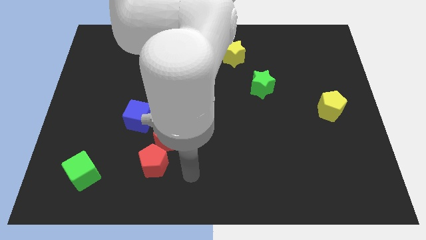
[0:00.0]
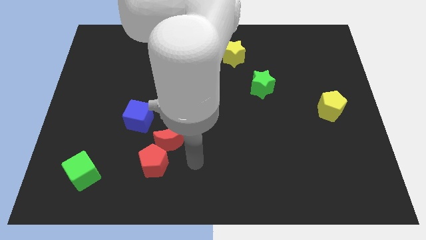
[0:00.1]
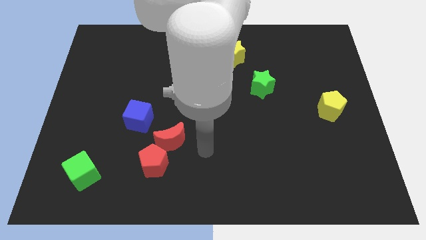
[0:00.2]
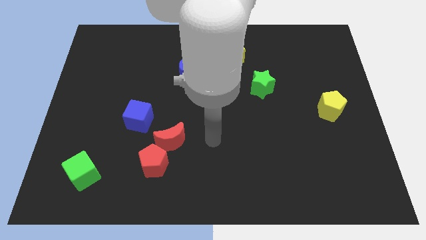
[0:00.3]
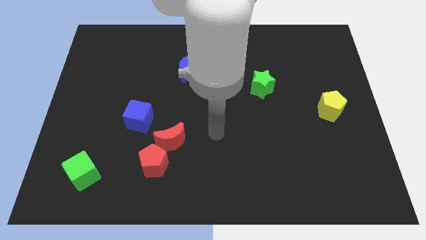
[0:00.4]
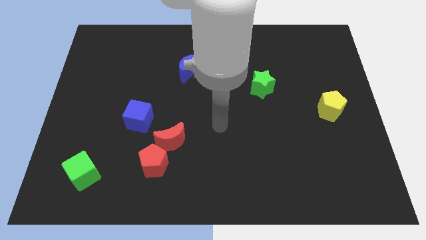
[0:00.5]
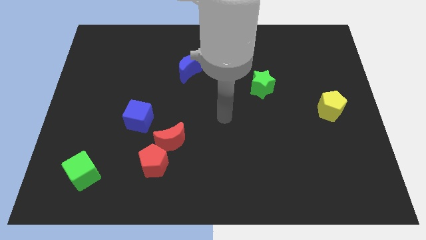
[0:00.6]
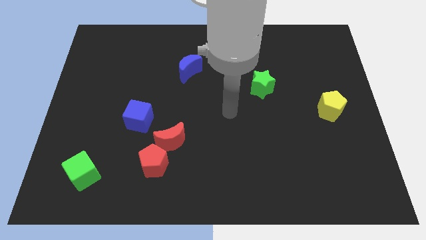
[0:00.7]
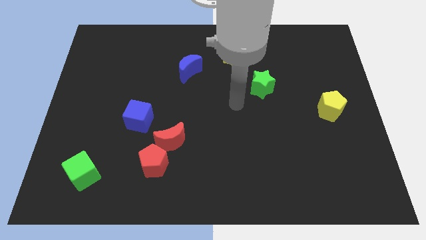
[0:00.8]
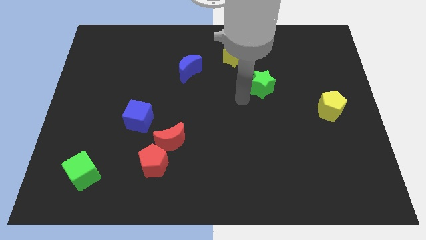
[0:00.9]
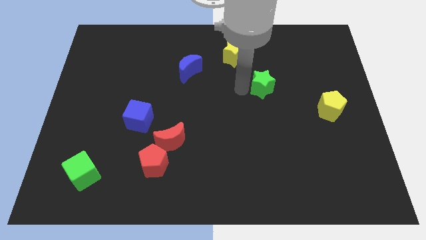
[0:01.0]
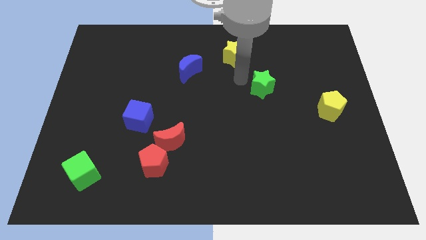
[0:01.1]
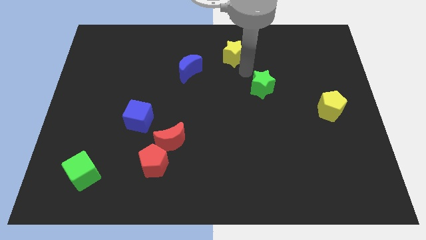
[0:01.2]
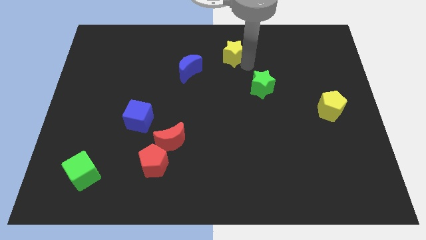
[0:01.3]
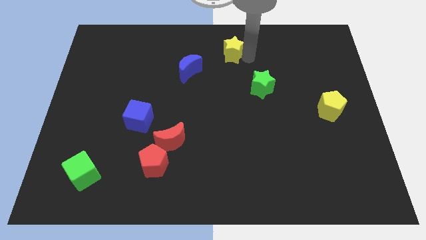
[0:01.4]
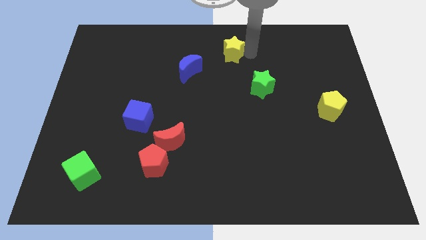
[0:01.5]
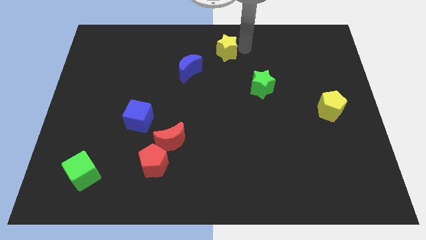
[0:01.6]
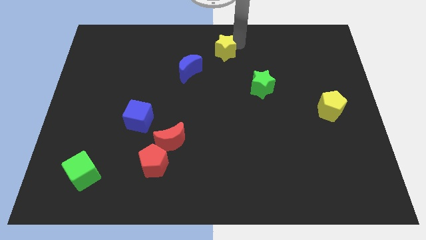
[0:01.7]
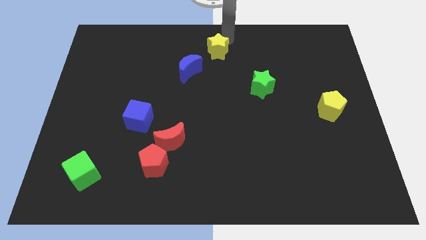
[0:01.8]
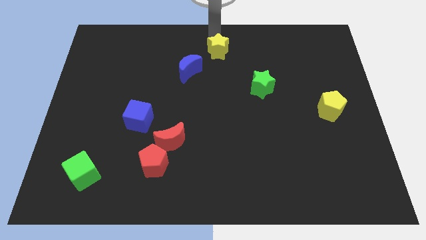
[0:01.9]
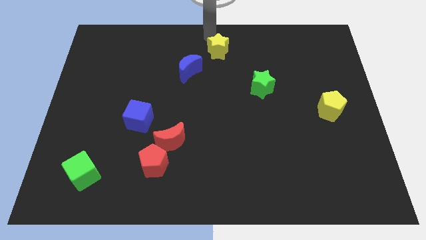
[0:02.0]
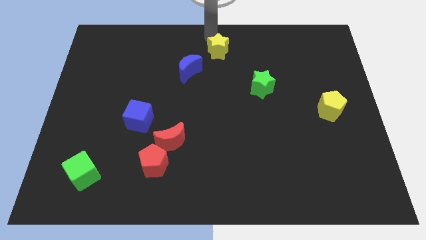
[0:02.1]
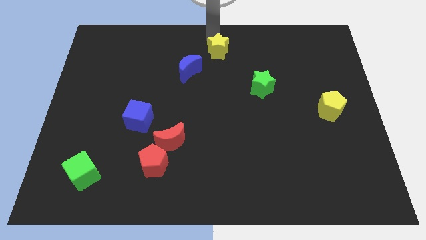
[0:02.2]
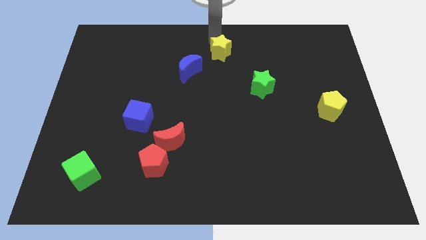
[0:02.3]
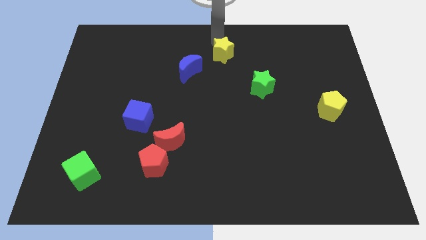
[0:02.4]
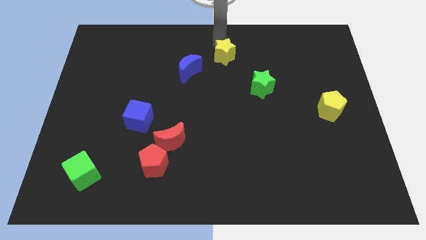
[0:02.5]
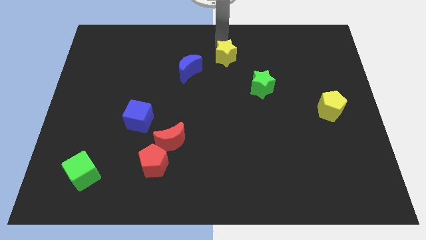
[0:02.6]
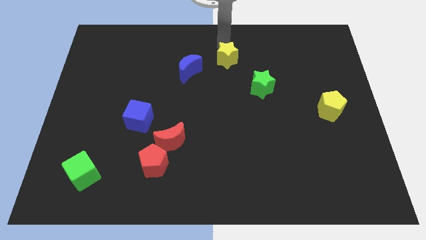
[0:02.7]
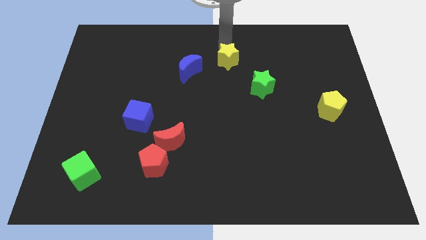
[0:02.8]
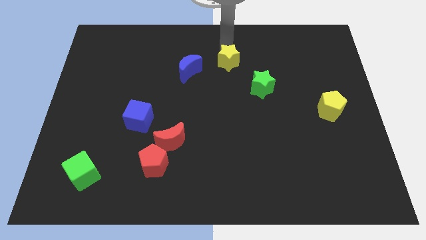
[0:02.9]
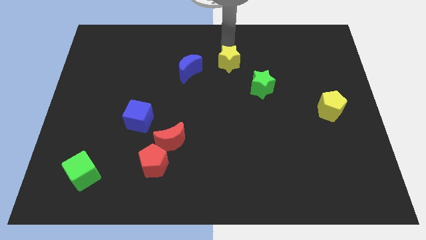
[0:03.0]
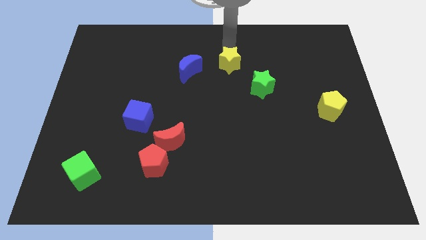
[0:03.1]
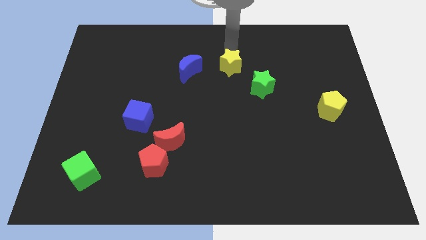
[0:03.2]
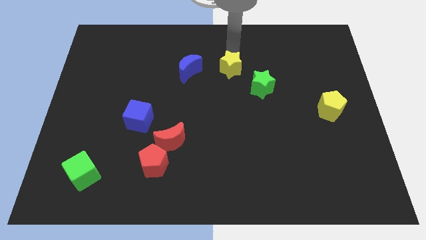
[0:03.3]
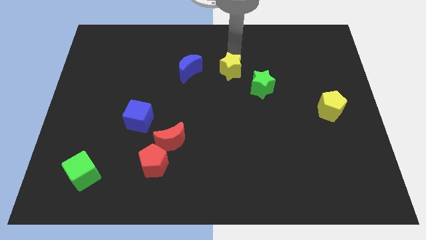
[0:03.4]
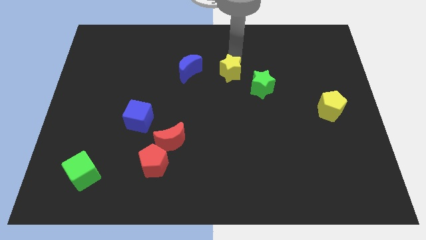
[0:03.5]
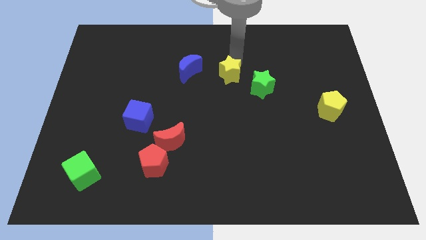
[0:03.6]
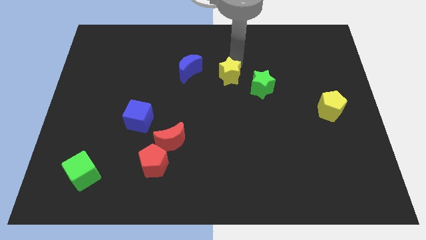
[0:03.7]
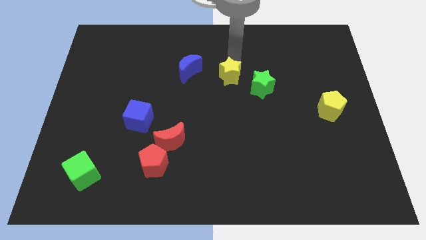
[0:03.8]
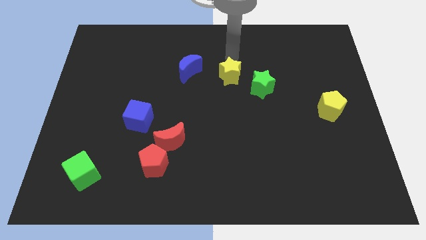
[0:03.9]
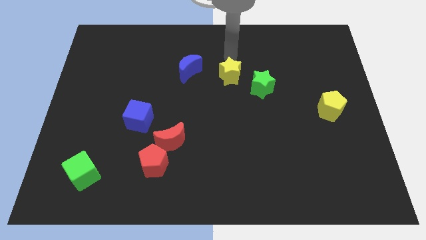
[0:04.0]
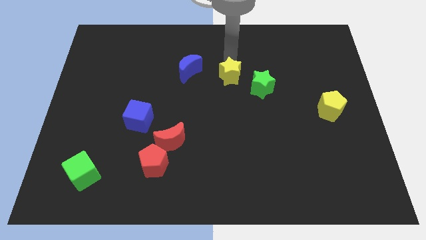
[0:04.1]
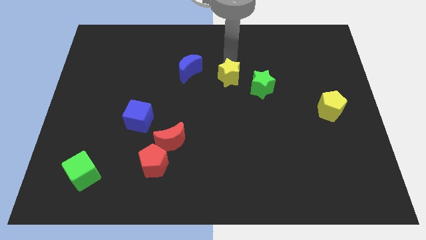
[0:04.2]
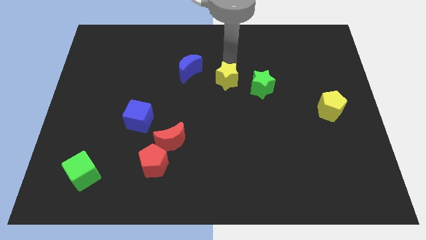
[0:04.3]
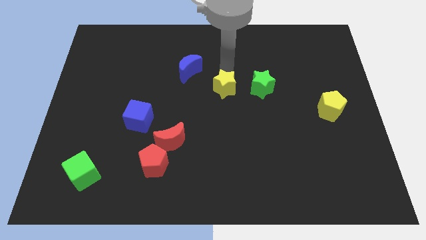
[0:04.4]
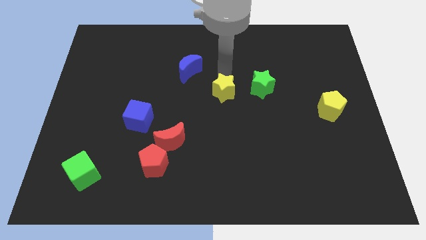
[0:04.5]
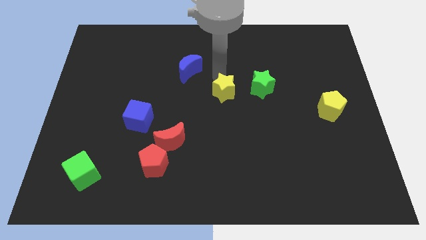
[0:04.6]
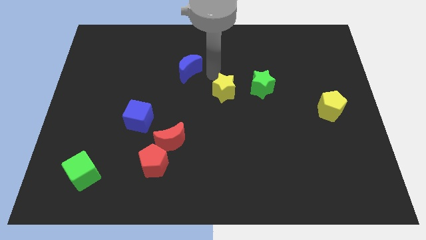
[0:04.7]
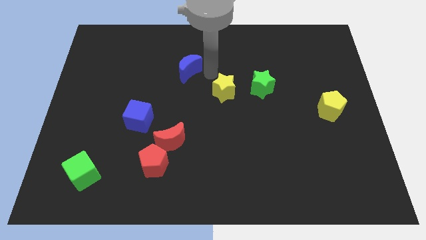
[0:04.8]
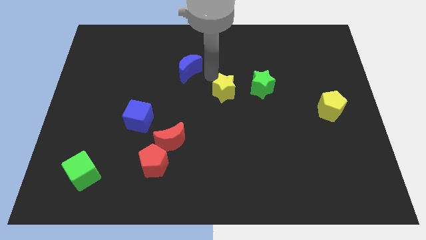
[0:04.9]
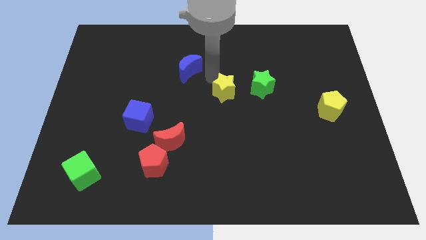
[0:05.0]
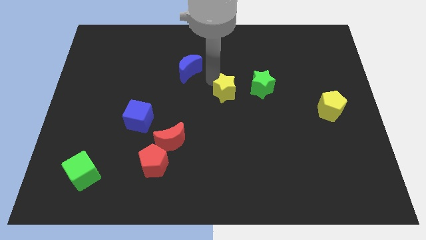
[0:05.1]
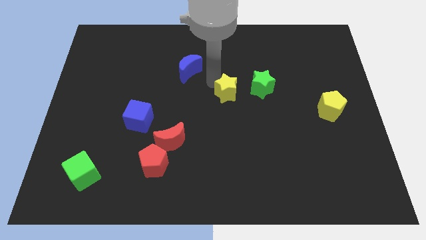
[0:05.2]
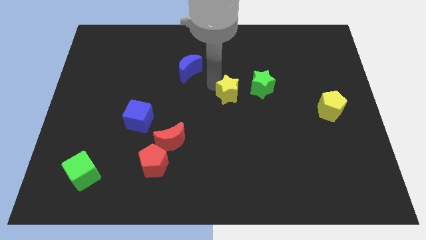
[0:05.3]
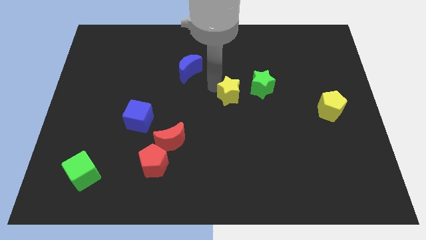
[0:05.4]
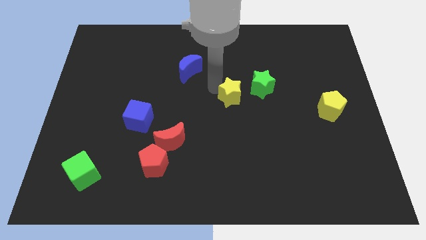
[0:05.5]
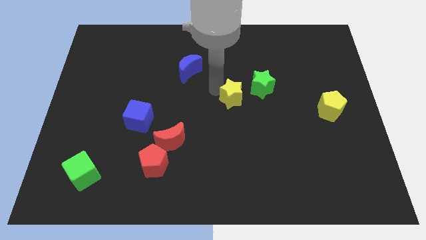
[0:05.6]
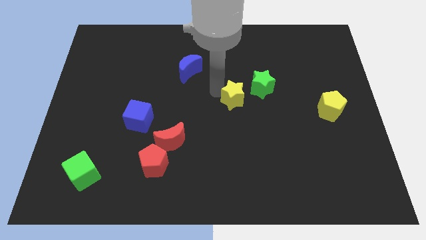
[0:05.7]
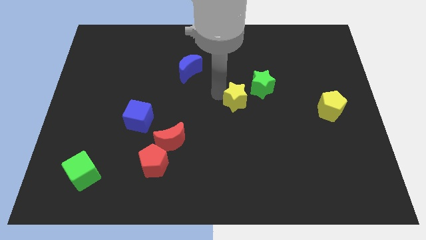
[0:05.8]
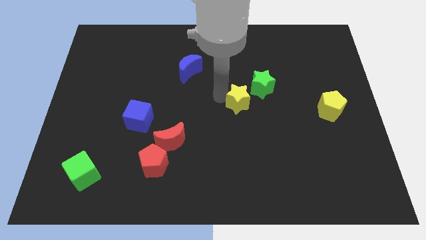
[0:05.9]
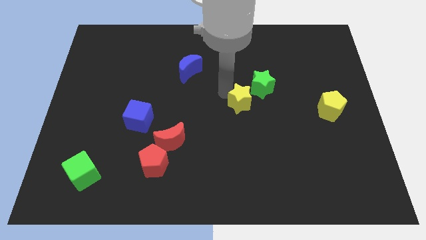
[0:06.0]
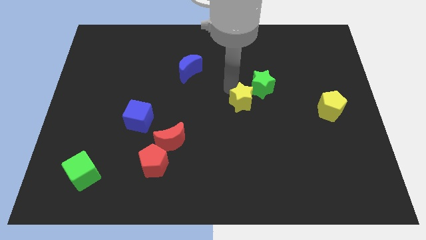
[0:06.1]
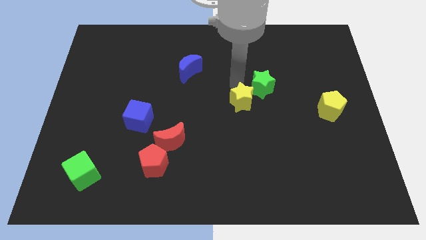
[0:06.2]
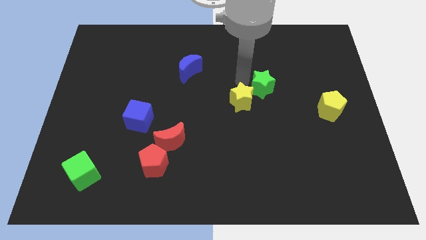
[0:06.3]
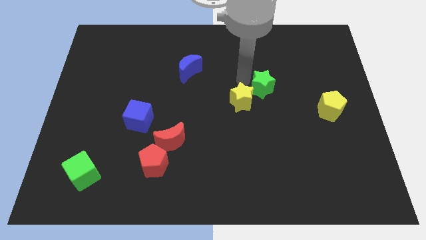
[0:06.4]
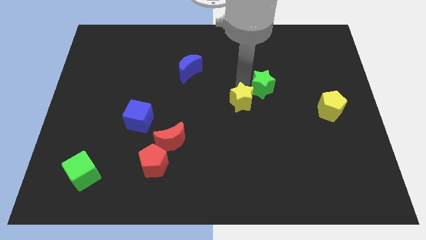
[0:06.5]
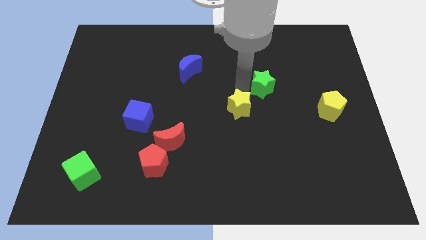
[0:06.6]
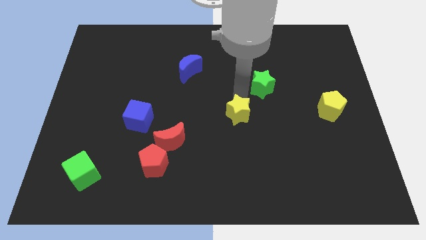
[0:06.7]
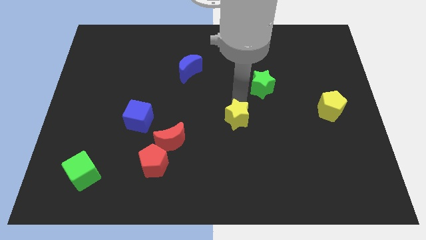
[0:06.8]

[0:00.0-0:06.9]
push the yellow star downwards

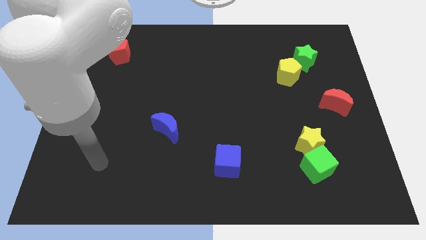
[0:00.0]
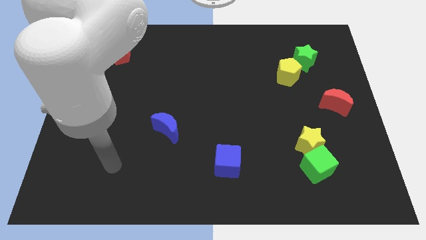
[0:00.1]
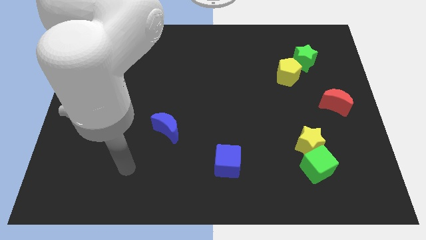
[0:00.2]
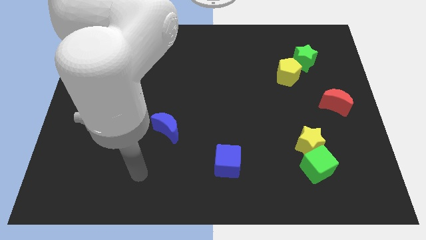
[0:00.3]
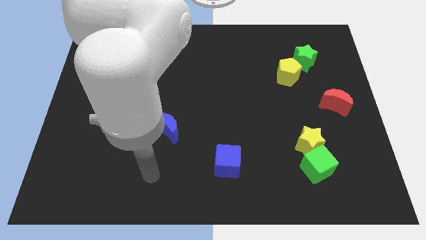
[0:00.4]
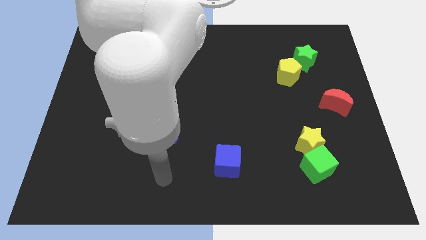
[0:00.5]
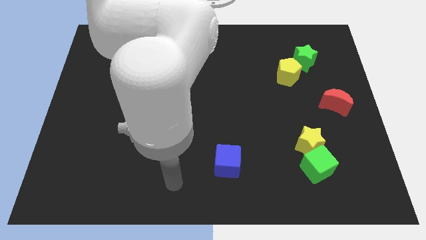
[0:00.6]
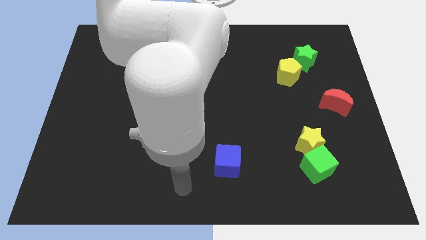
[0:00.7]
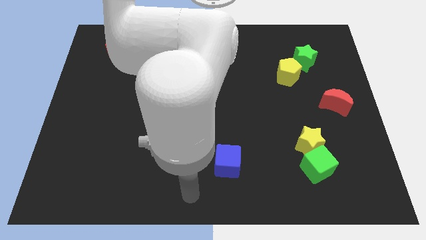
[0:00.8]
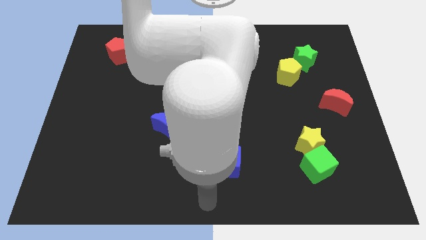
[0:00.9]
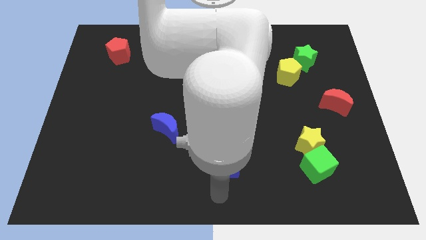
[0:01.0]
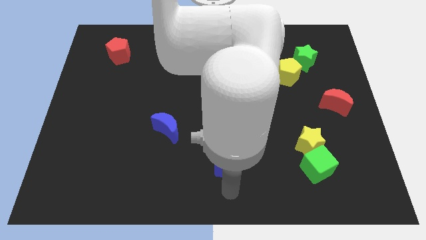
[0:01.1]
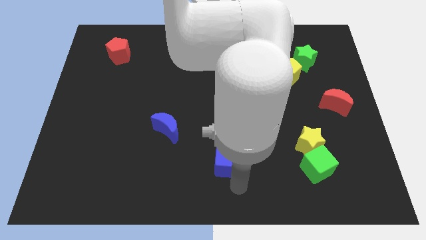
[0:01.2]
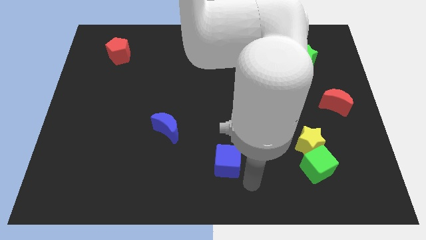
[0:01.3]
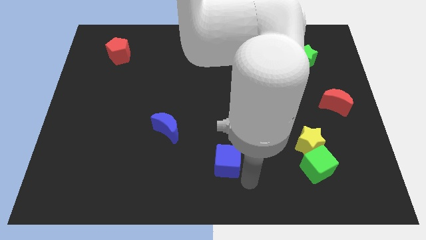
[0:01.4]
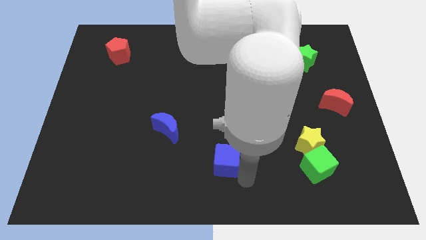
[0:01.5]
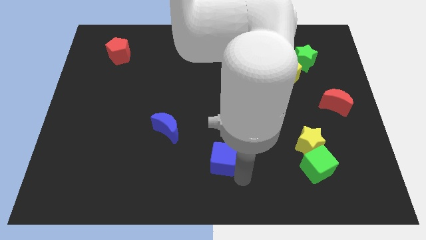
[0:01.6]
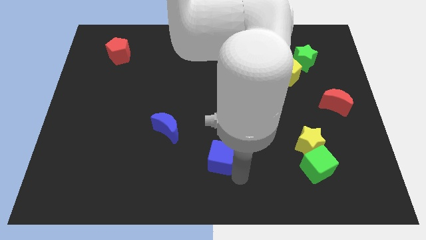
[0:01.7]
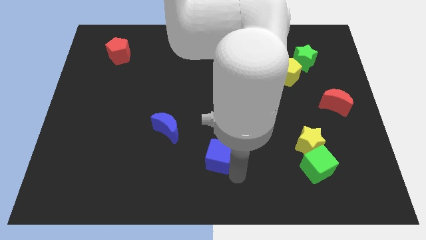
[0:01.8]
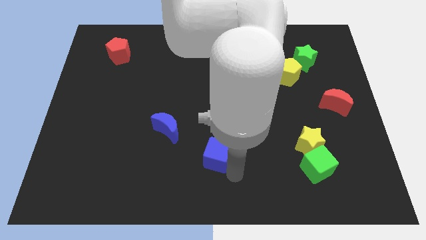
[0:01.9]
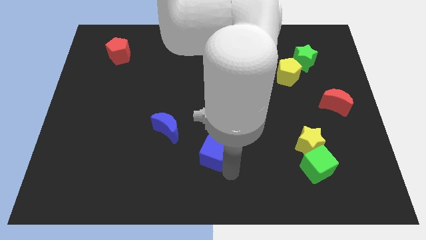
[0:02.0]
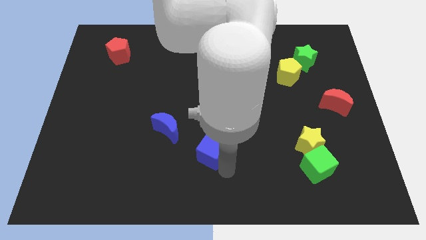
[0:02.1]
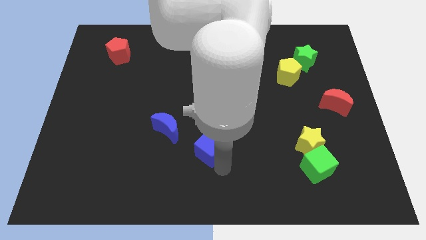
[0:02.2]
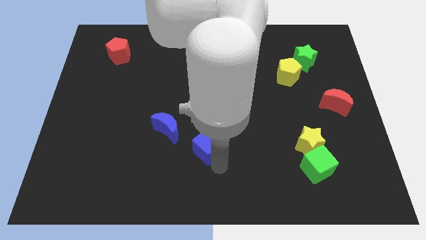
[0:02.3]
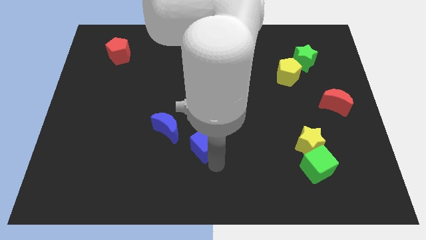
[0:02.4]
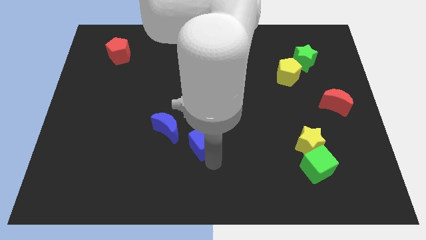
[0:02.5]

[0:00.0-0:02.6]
move the blue cube upwards and to the left diagonally a little bit
